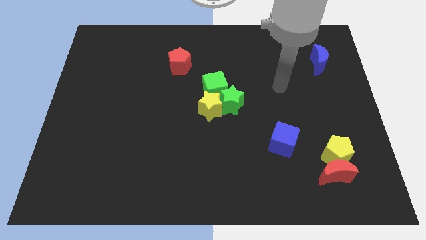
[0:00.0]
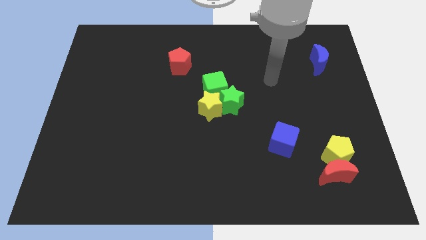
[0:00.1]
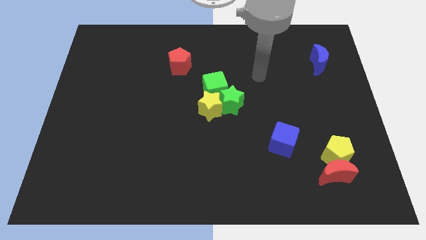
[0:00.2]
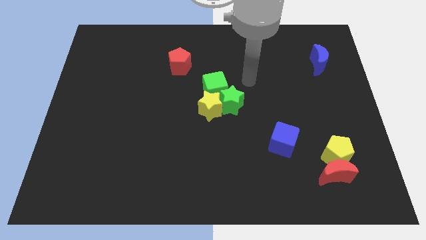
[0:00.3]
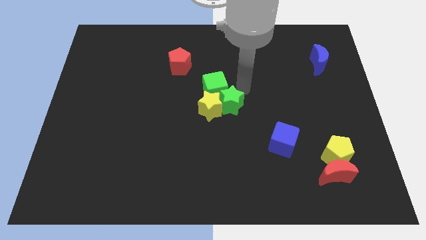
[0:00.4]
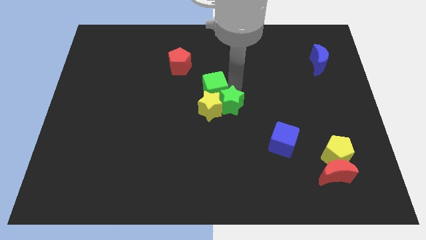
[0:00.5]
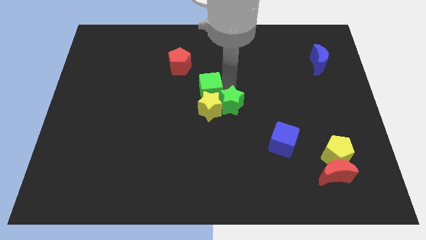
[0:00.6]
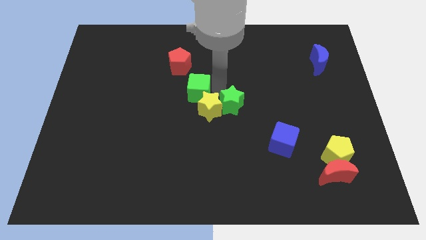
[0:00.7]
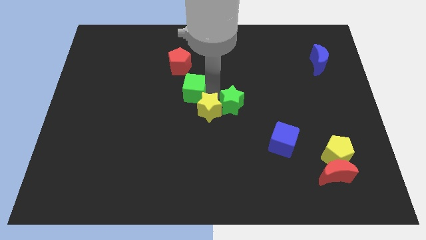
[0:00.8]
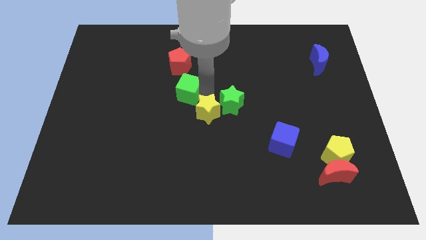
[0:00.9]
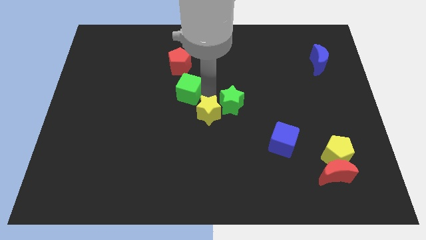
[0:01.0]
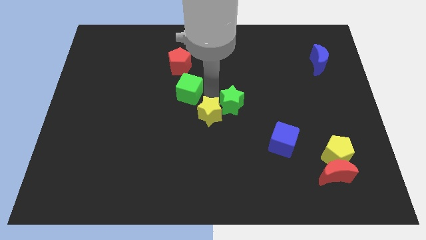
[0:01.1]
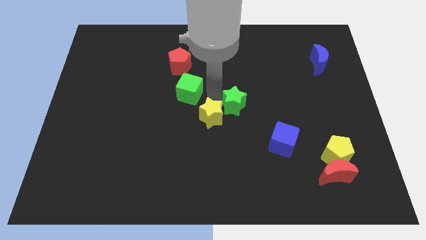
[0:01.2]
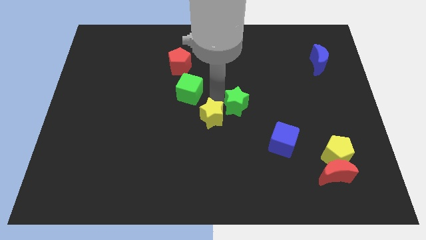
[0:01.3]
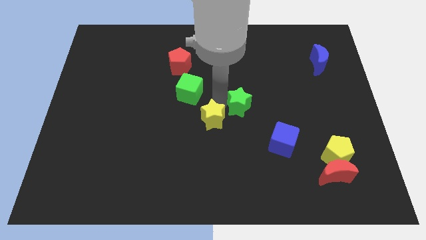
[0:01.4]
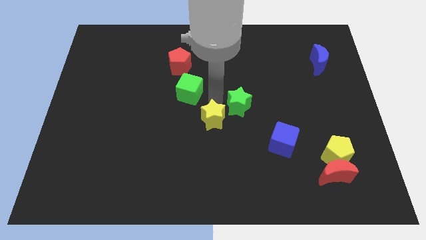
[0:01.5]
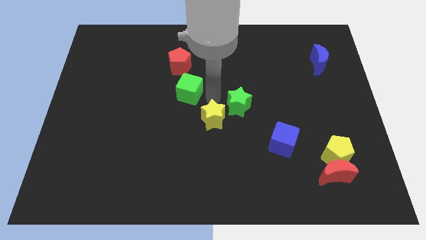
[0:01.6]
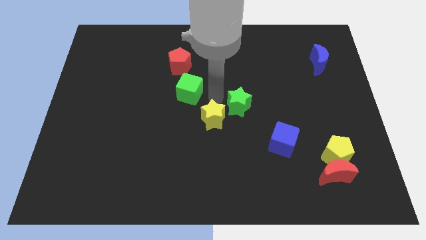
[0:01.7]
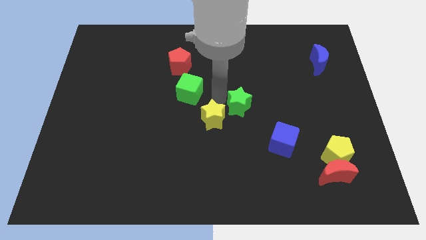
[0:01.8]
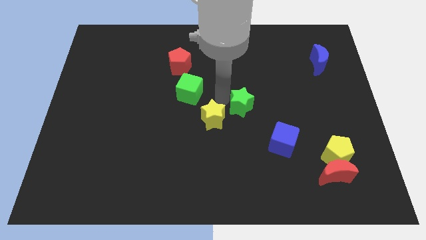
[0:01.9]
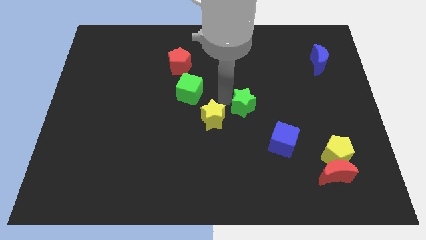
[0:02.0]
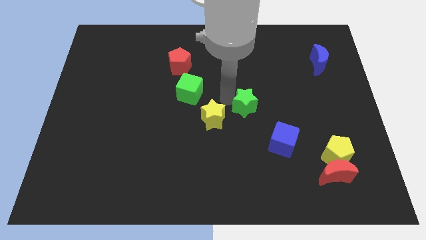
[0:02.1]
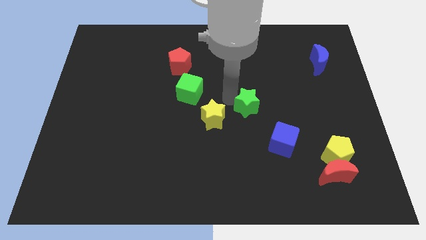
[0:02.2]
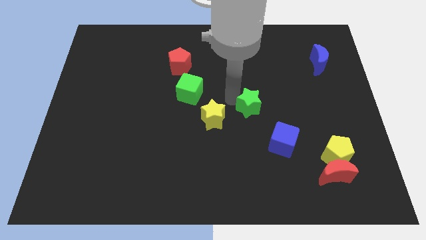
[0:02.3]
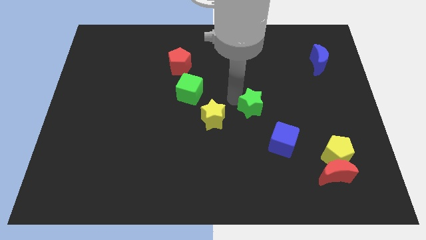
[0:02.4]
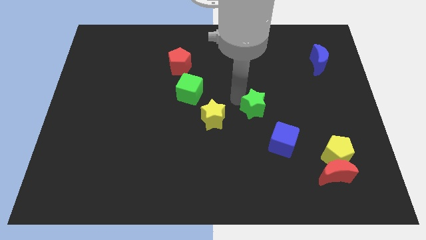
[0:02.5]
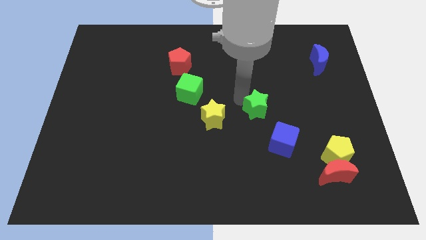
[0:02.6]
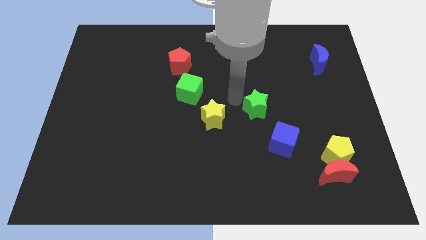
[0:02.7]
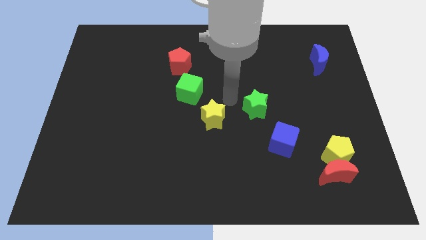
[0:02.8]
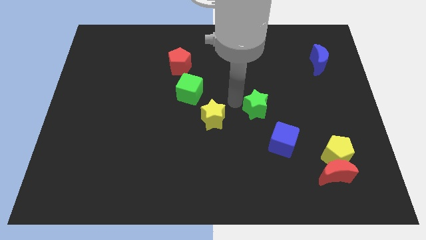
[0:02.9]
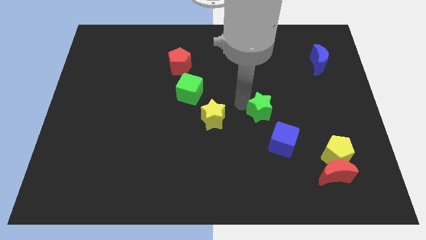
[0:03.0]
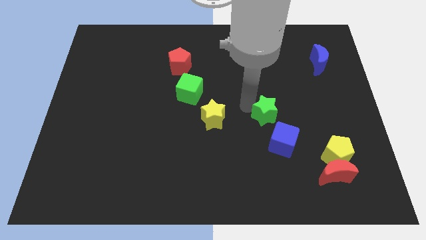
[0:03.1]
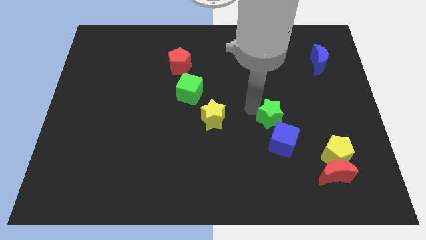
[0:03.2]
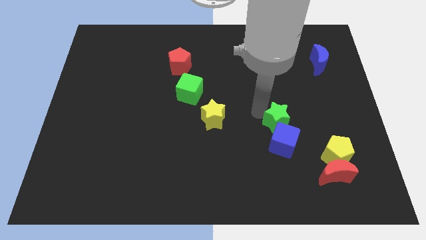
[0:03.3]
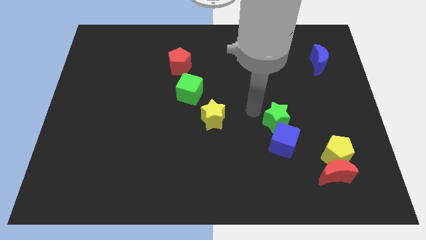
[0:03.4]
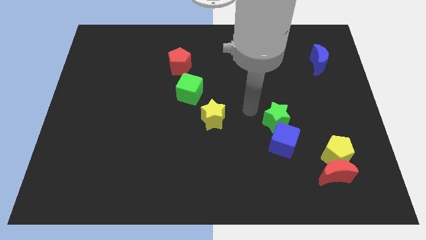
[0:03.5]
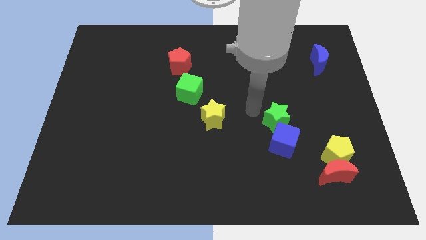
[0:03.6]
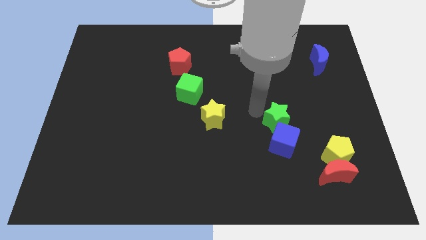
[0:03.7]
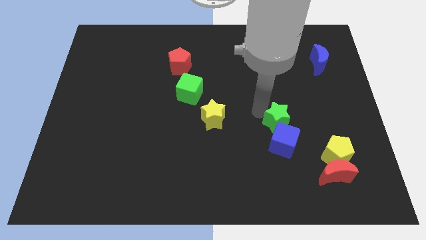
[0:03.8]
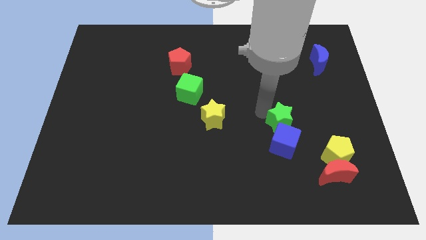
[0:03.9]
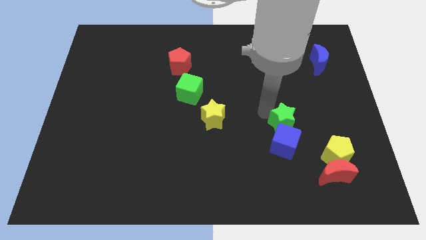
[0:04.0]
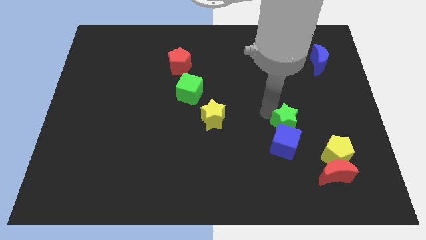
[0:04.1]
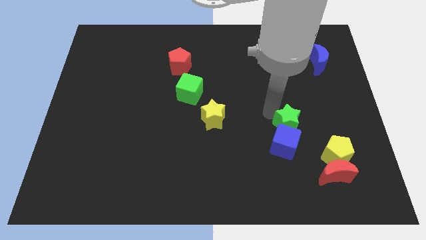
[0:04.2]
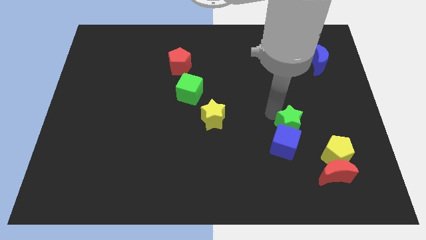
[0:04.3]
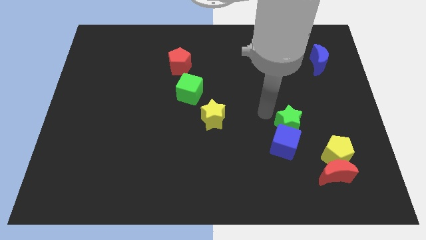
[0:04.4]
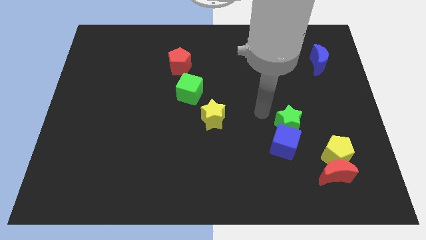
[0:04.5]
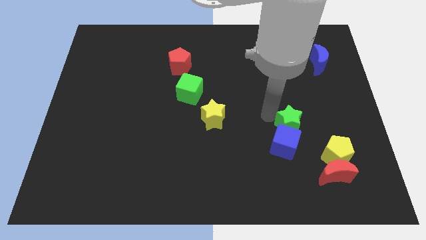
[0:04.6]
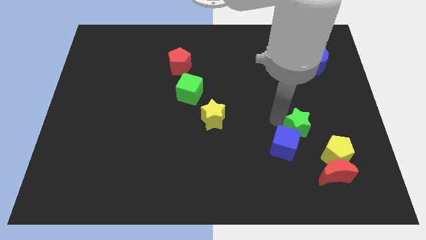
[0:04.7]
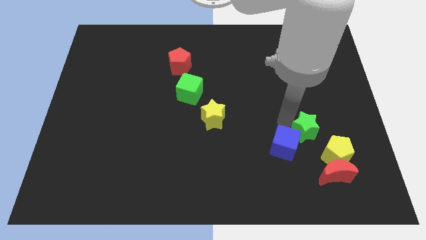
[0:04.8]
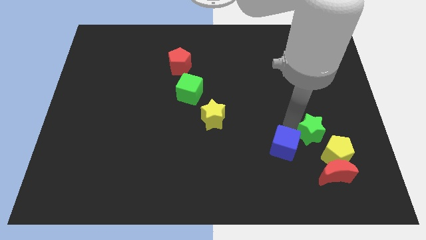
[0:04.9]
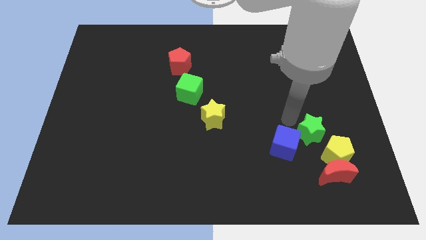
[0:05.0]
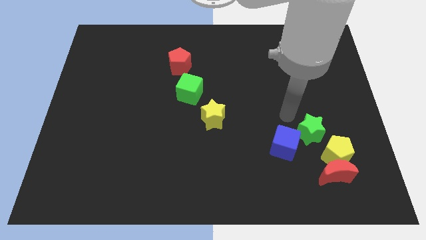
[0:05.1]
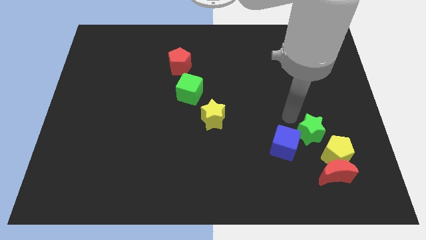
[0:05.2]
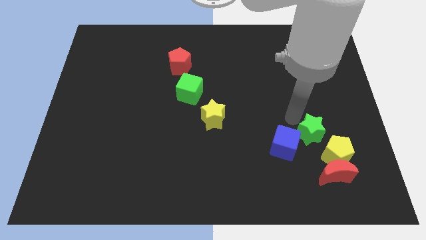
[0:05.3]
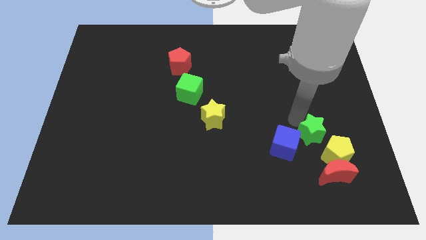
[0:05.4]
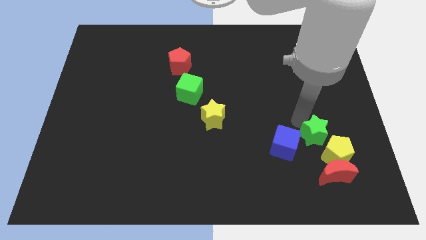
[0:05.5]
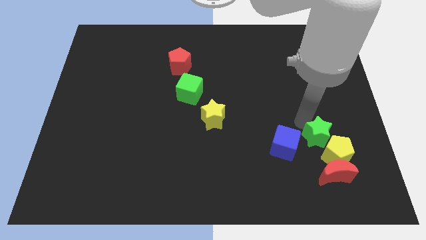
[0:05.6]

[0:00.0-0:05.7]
slide the green star to the yellow pentagon

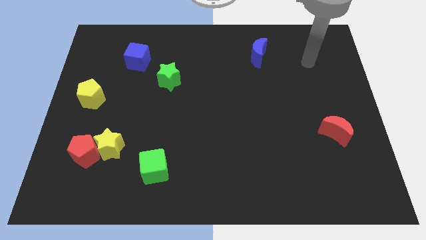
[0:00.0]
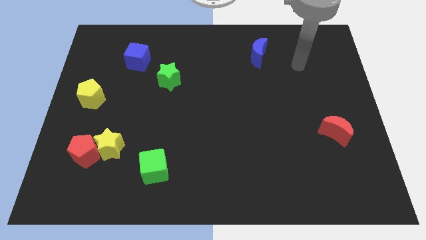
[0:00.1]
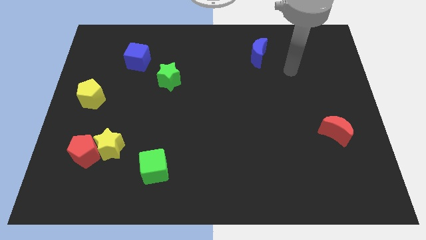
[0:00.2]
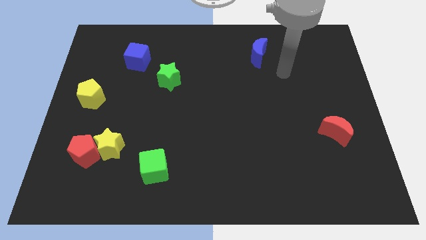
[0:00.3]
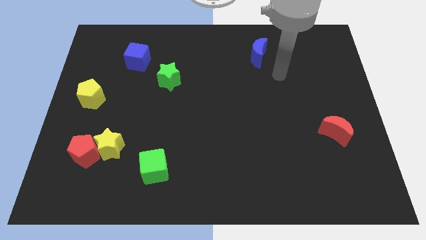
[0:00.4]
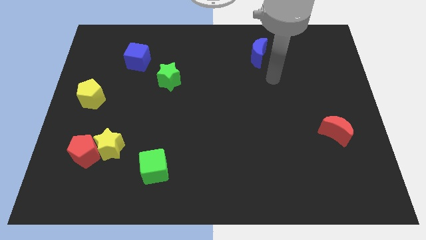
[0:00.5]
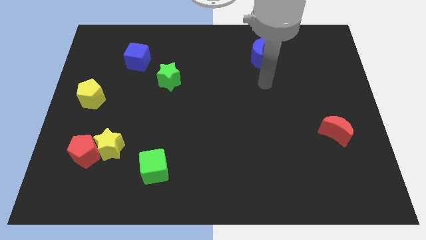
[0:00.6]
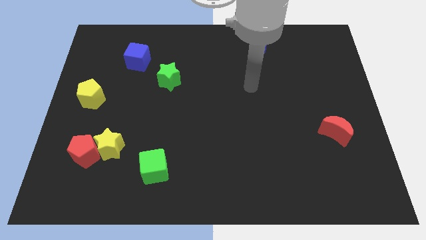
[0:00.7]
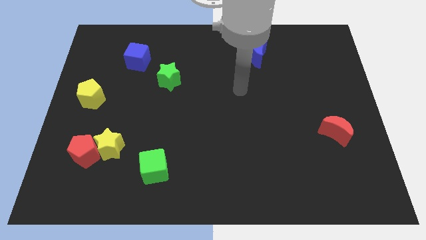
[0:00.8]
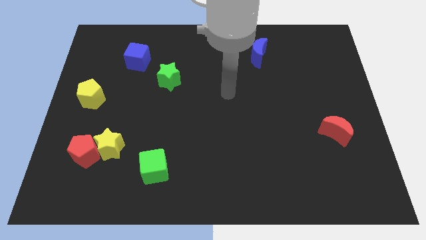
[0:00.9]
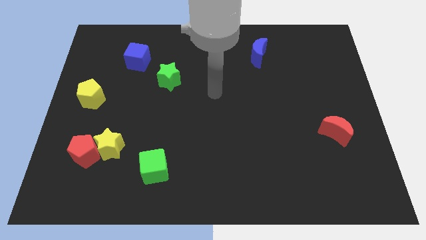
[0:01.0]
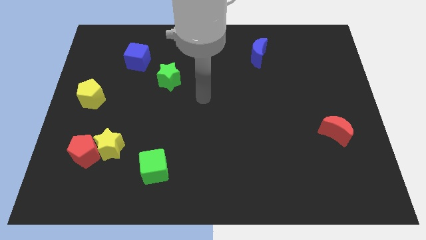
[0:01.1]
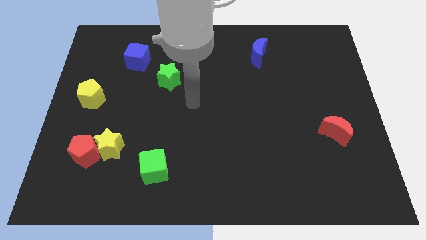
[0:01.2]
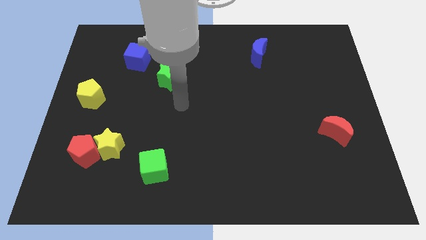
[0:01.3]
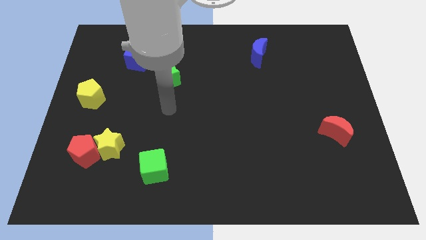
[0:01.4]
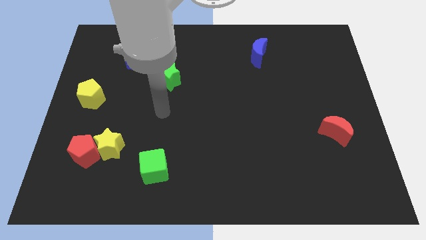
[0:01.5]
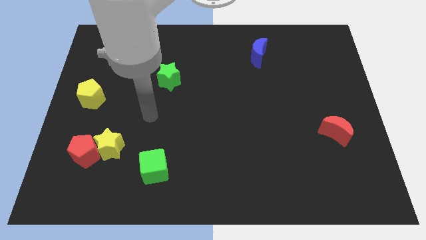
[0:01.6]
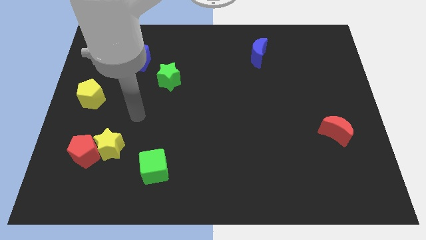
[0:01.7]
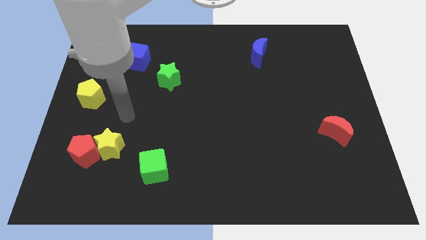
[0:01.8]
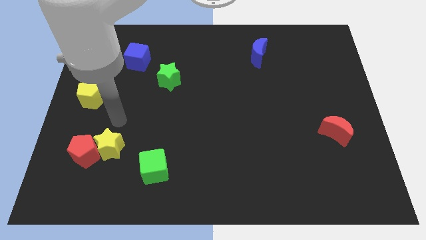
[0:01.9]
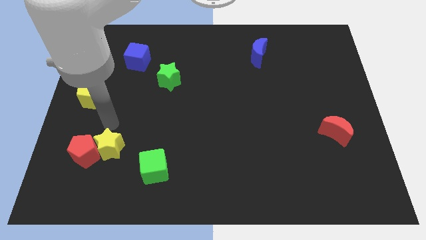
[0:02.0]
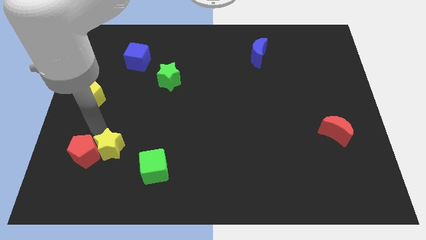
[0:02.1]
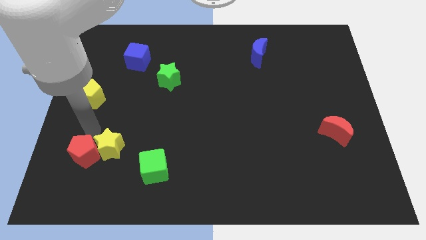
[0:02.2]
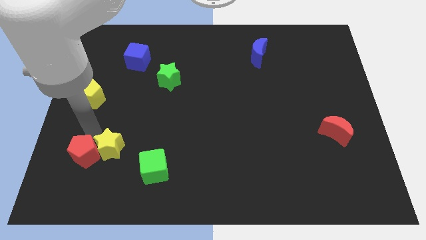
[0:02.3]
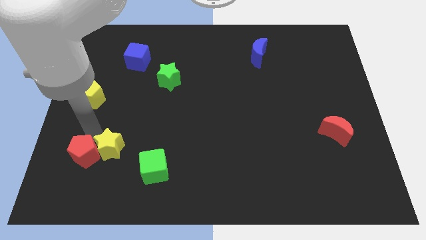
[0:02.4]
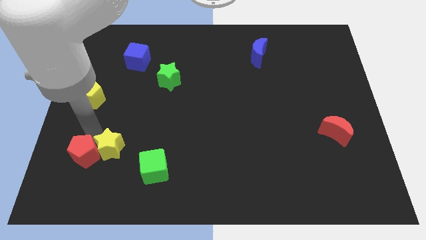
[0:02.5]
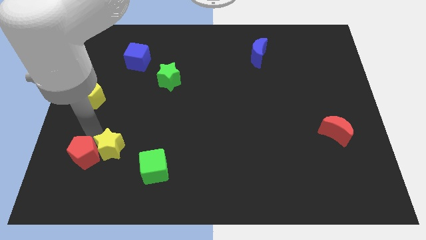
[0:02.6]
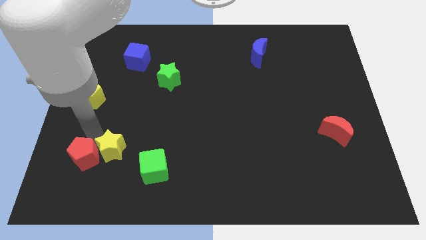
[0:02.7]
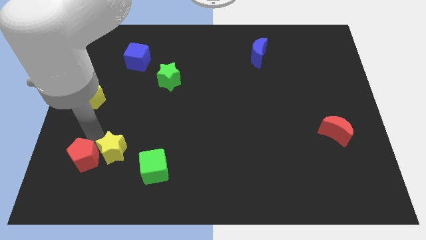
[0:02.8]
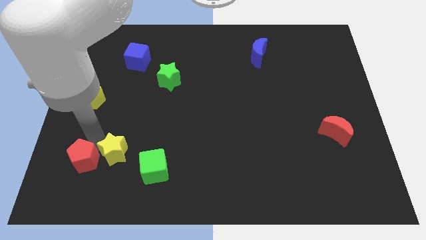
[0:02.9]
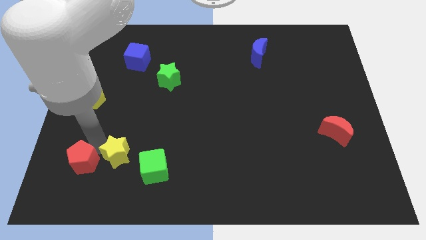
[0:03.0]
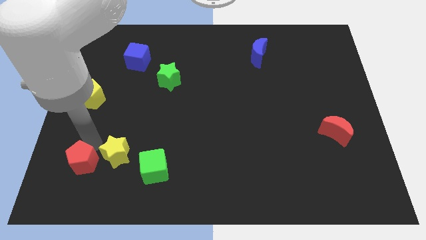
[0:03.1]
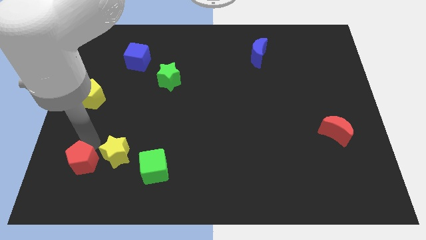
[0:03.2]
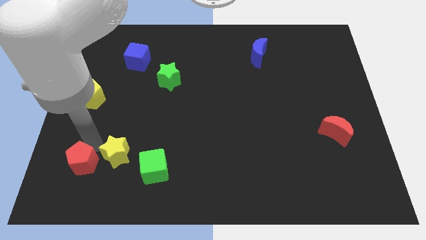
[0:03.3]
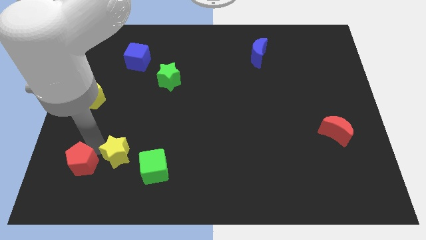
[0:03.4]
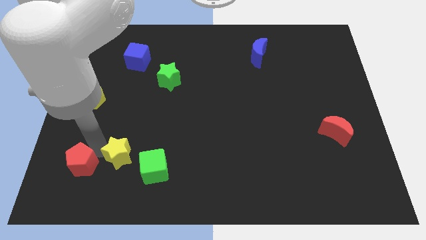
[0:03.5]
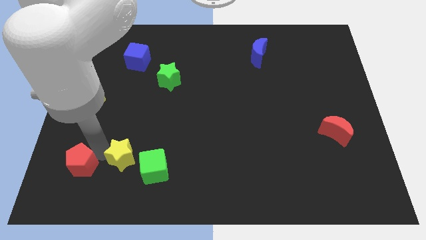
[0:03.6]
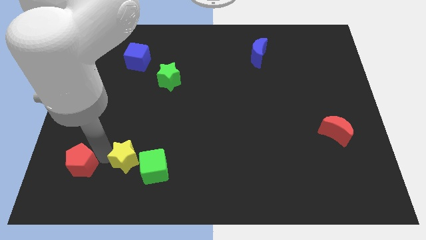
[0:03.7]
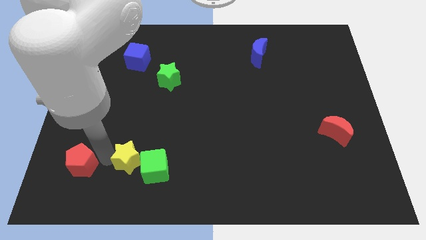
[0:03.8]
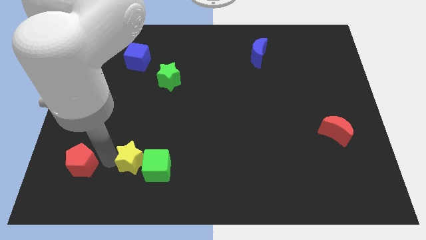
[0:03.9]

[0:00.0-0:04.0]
push the yellow star next to the green cube
